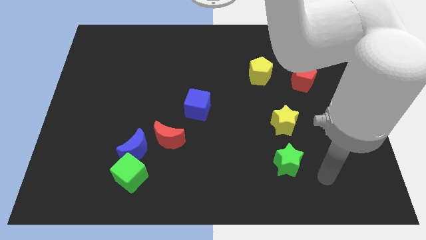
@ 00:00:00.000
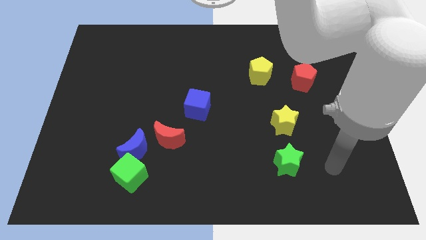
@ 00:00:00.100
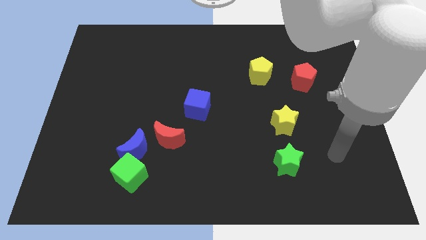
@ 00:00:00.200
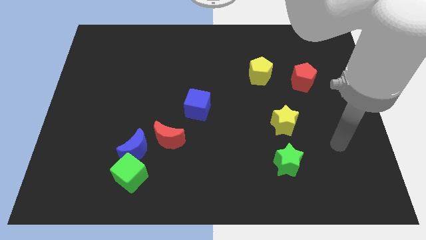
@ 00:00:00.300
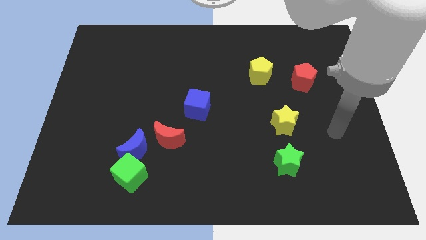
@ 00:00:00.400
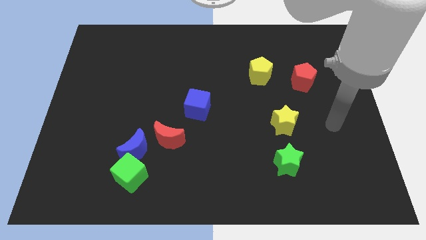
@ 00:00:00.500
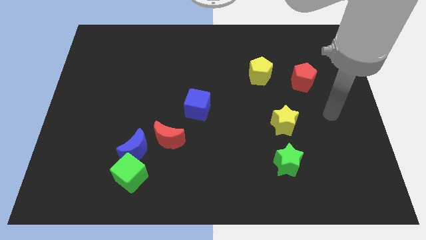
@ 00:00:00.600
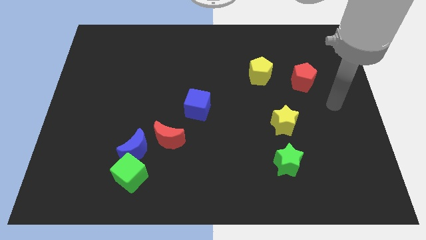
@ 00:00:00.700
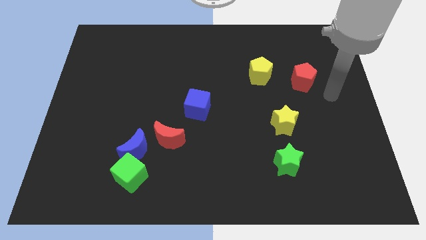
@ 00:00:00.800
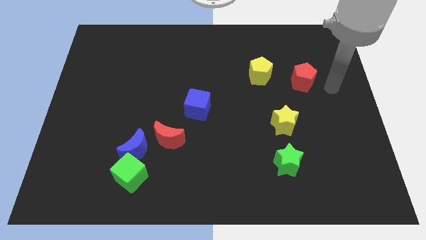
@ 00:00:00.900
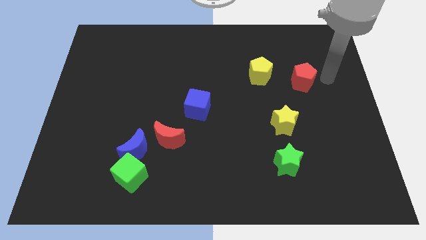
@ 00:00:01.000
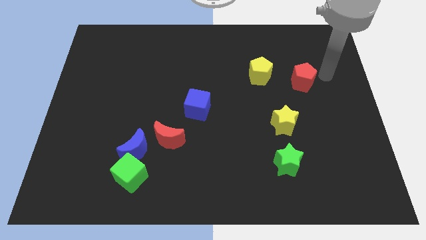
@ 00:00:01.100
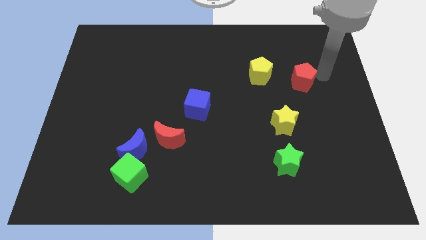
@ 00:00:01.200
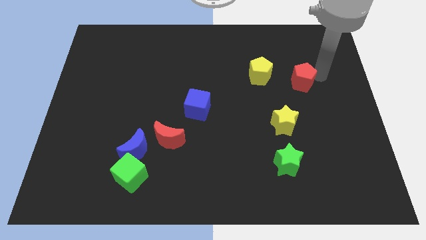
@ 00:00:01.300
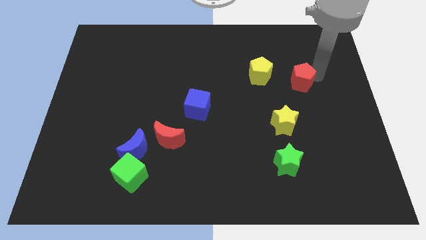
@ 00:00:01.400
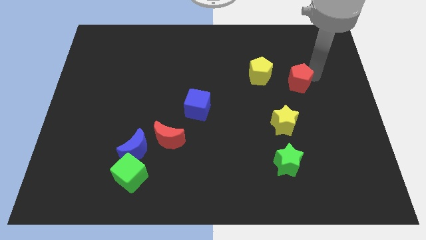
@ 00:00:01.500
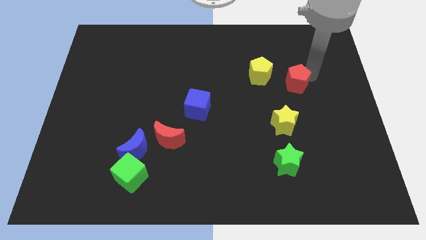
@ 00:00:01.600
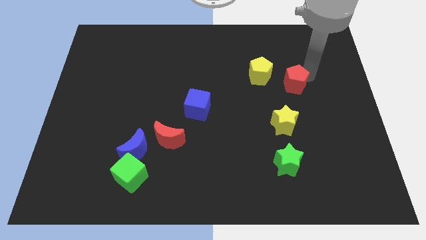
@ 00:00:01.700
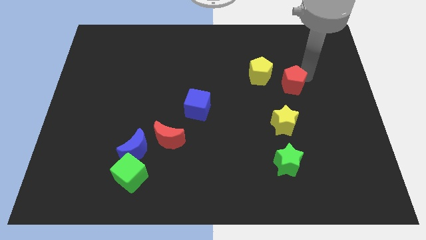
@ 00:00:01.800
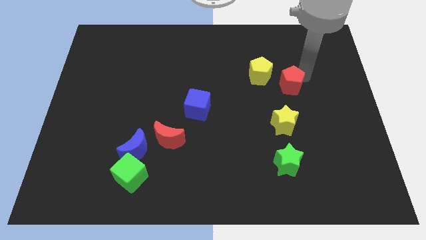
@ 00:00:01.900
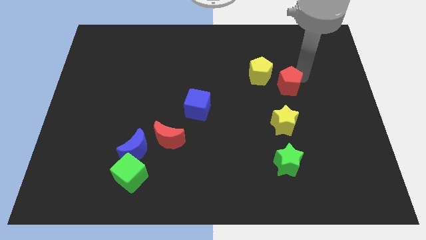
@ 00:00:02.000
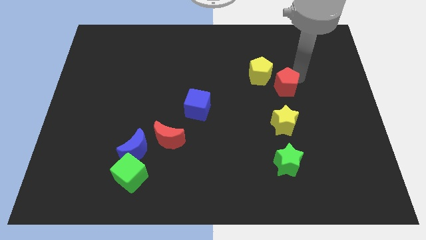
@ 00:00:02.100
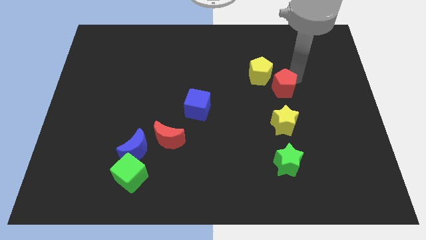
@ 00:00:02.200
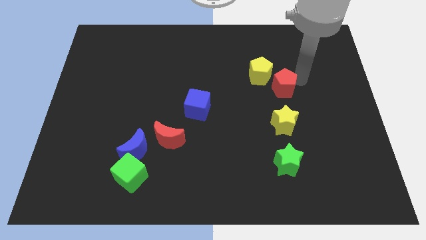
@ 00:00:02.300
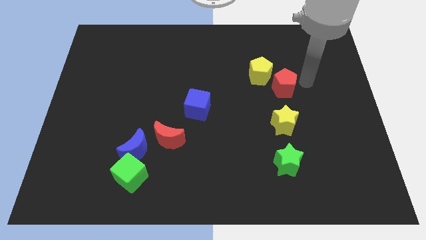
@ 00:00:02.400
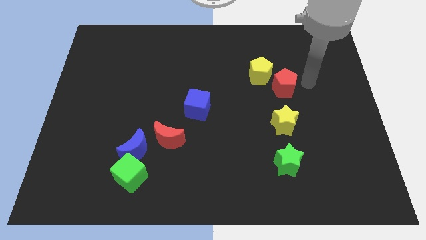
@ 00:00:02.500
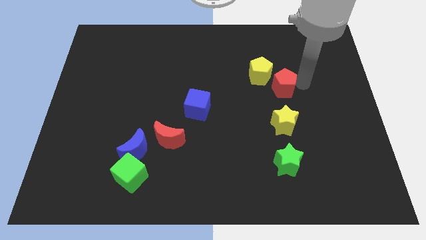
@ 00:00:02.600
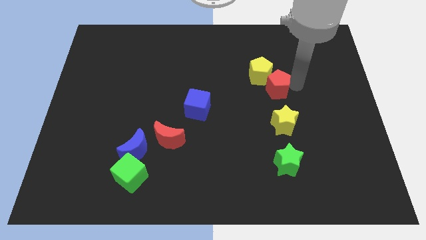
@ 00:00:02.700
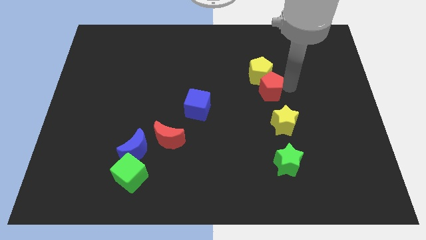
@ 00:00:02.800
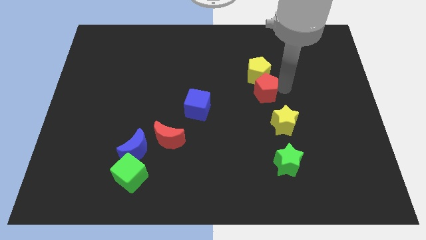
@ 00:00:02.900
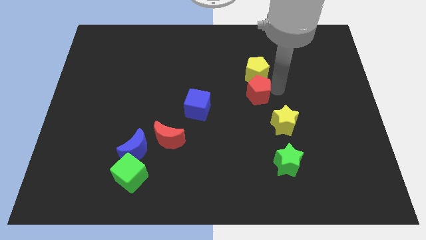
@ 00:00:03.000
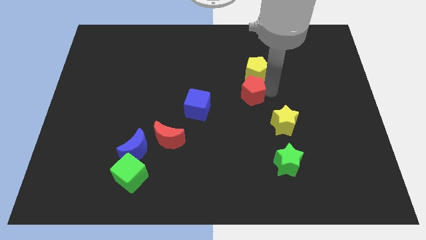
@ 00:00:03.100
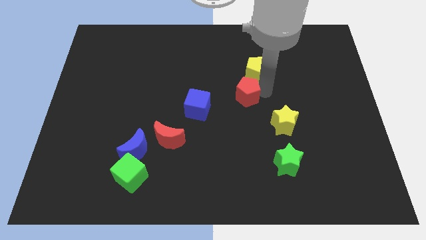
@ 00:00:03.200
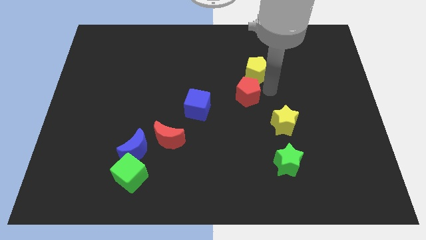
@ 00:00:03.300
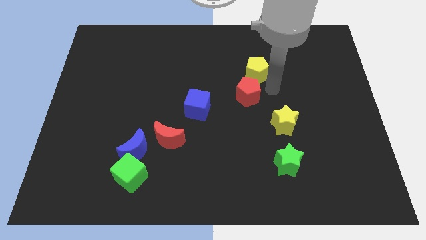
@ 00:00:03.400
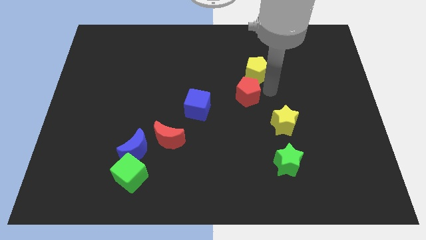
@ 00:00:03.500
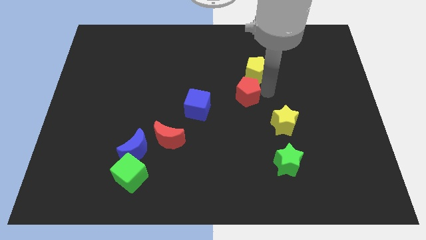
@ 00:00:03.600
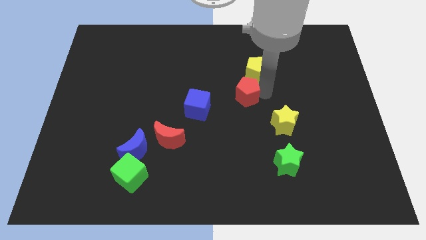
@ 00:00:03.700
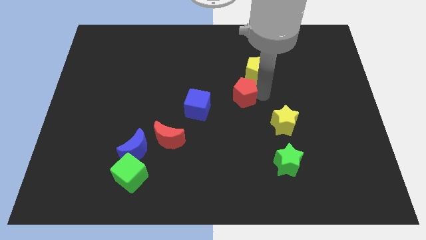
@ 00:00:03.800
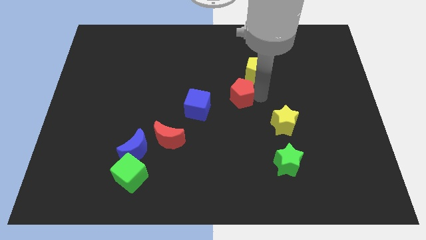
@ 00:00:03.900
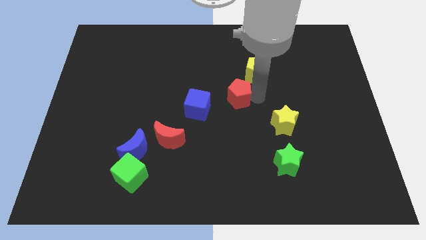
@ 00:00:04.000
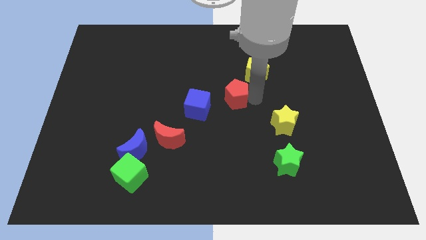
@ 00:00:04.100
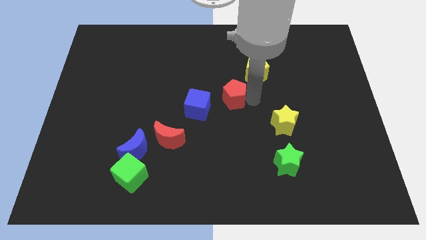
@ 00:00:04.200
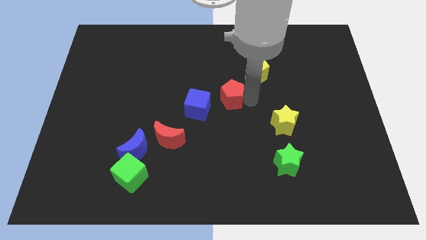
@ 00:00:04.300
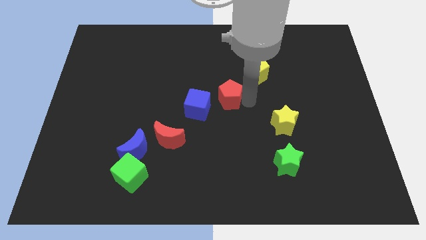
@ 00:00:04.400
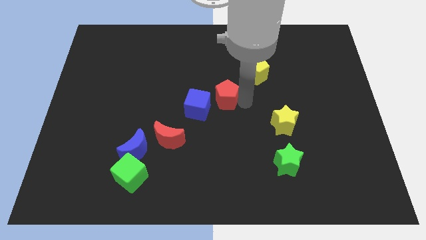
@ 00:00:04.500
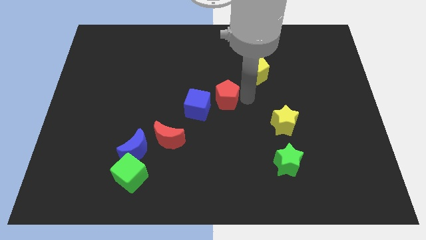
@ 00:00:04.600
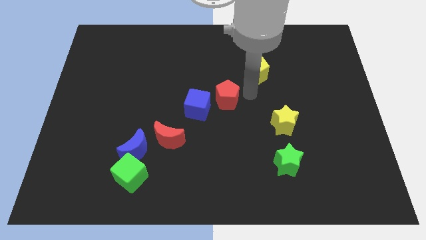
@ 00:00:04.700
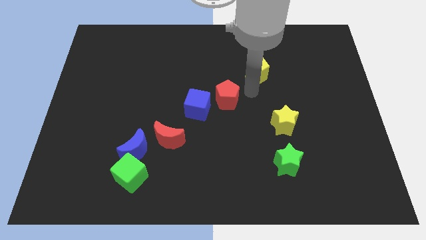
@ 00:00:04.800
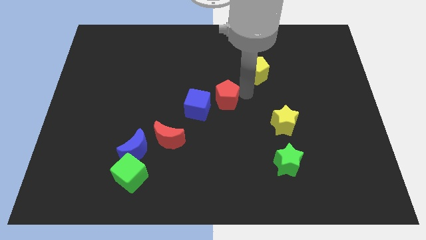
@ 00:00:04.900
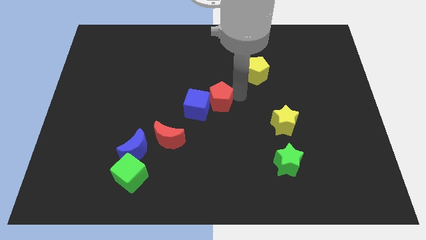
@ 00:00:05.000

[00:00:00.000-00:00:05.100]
put the red pentagon next to the blue cube

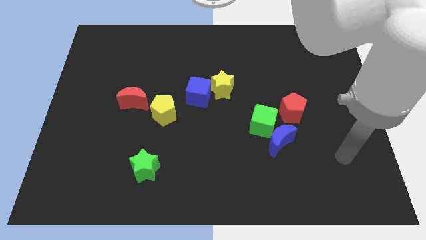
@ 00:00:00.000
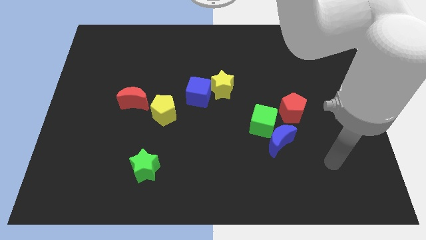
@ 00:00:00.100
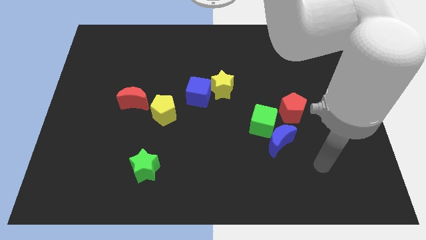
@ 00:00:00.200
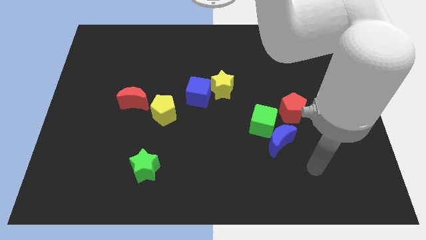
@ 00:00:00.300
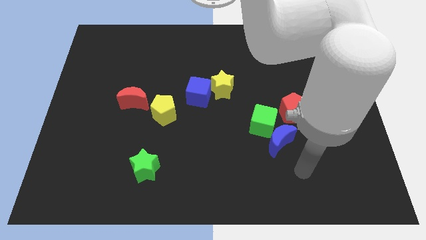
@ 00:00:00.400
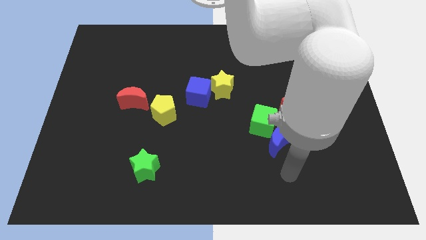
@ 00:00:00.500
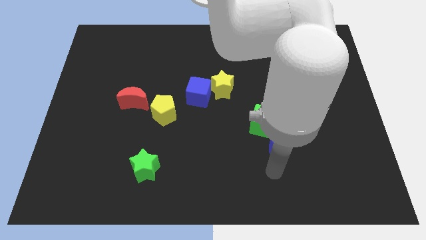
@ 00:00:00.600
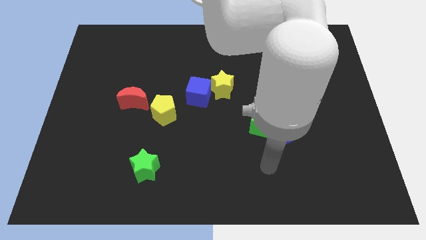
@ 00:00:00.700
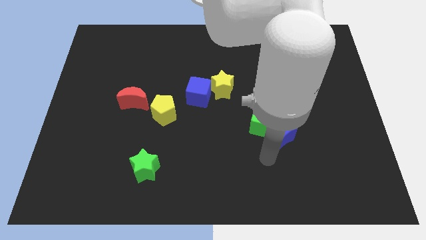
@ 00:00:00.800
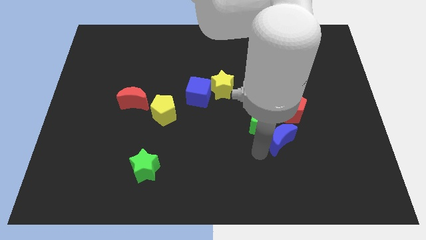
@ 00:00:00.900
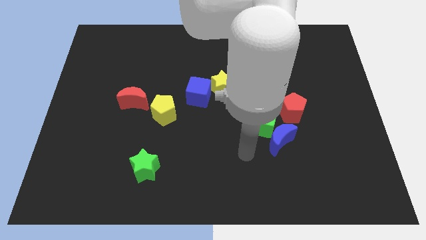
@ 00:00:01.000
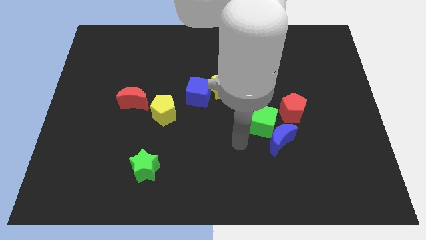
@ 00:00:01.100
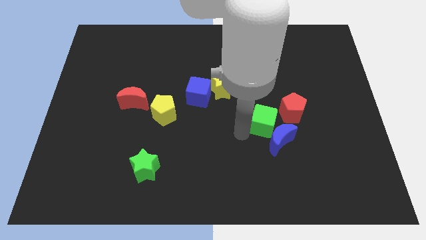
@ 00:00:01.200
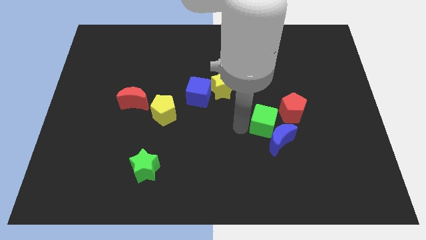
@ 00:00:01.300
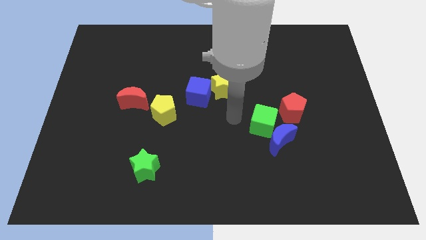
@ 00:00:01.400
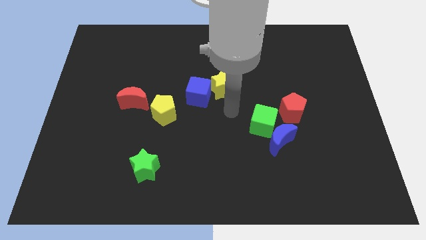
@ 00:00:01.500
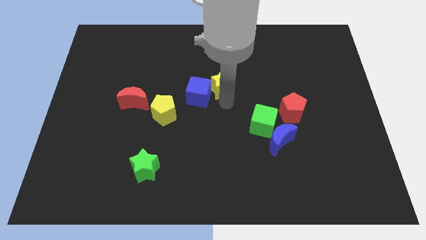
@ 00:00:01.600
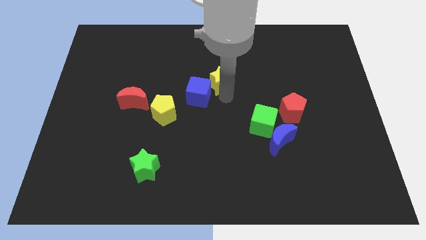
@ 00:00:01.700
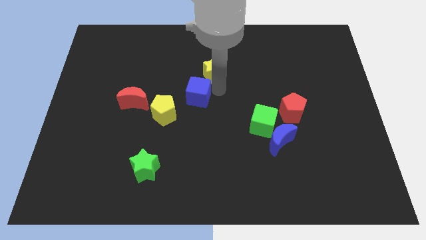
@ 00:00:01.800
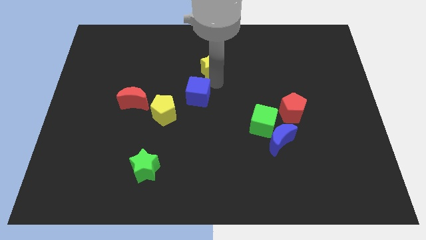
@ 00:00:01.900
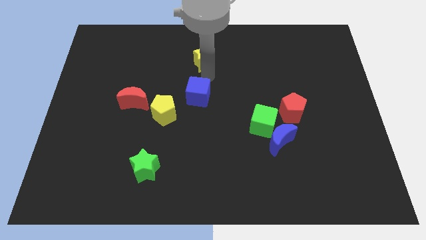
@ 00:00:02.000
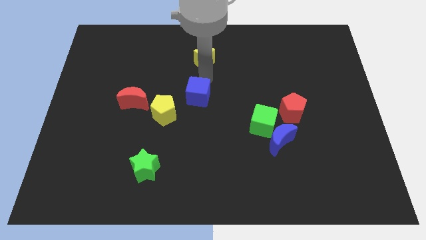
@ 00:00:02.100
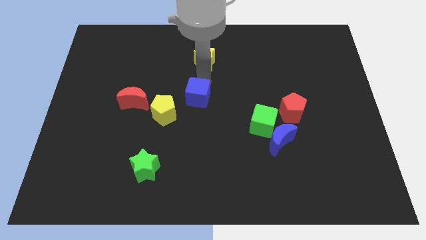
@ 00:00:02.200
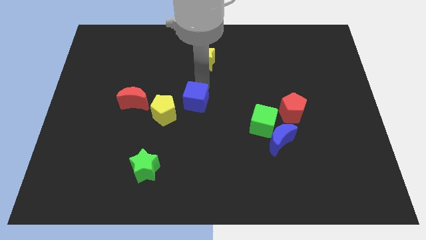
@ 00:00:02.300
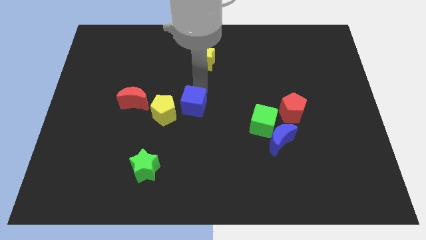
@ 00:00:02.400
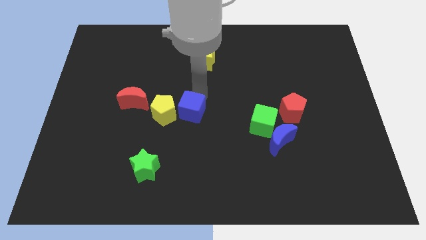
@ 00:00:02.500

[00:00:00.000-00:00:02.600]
slide the blue cube next to the yellow pentagon
